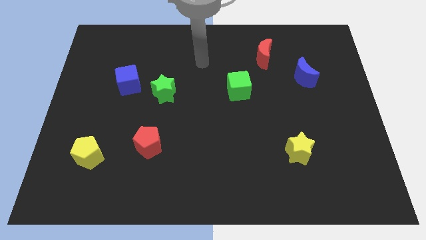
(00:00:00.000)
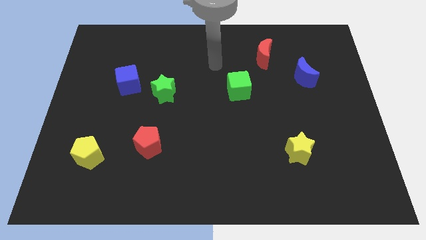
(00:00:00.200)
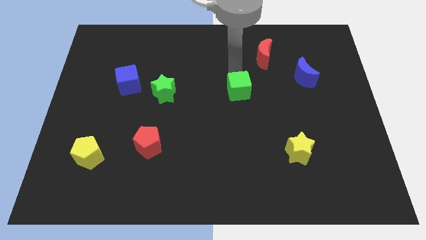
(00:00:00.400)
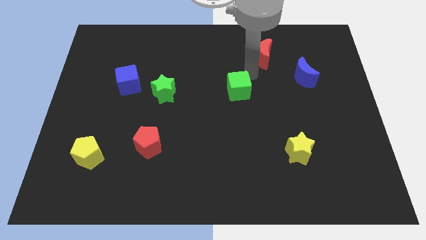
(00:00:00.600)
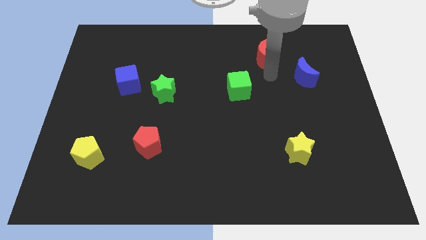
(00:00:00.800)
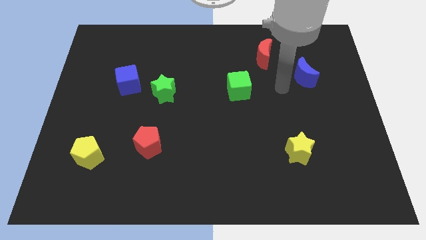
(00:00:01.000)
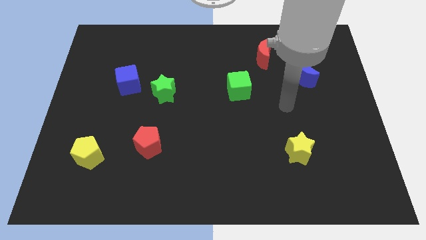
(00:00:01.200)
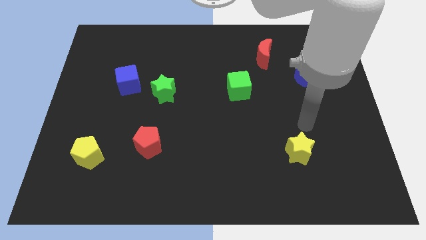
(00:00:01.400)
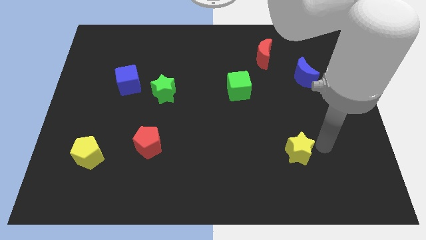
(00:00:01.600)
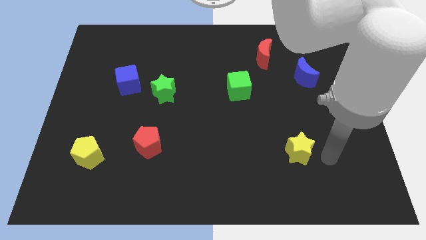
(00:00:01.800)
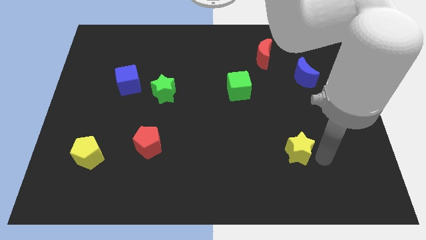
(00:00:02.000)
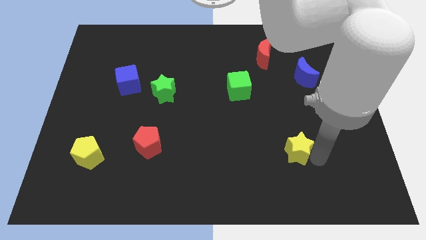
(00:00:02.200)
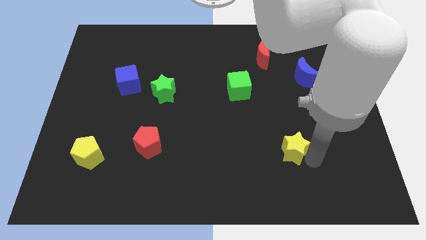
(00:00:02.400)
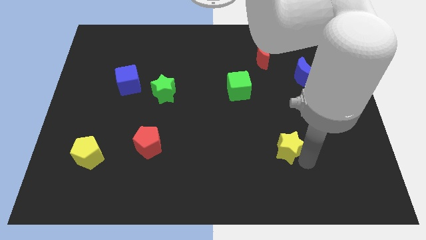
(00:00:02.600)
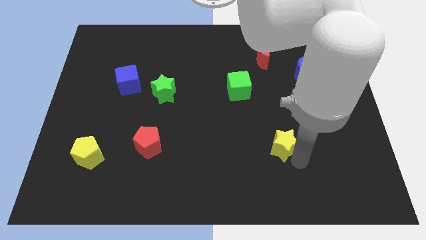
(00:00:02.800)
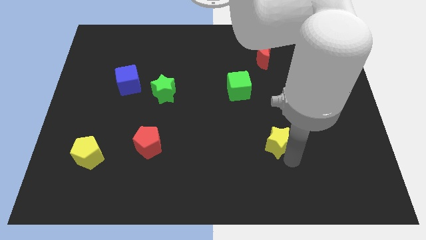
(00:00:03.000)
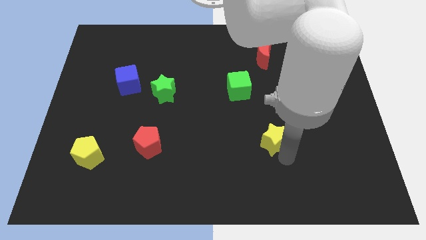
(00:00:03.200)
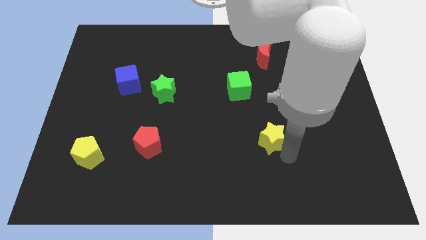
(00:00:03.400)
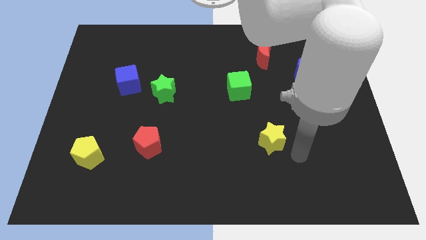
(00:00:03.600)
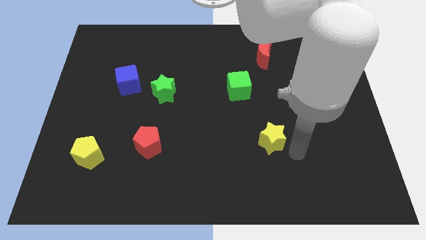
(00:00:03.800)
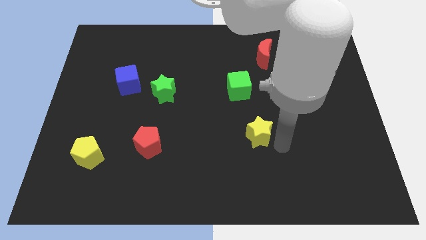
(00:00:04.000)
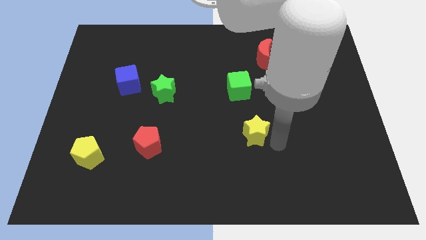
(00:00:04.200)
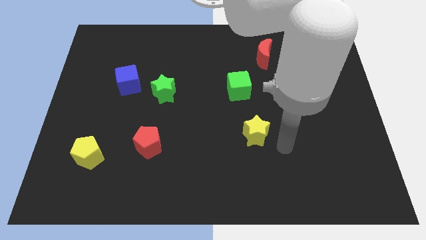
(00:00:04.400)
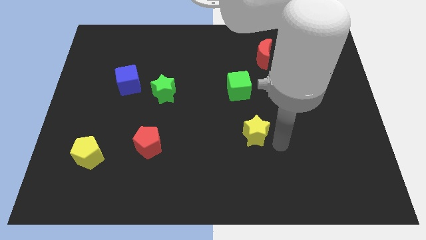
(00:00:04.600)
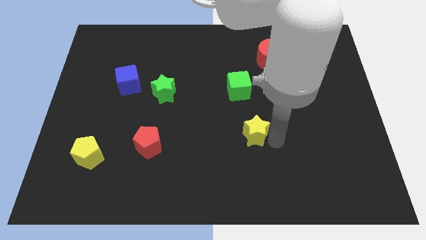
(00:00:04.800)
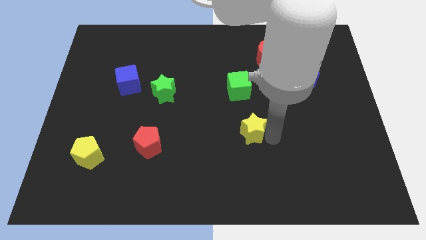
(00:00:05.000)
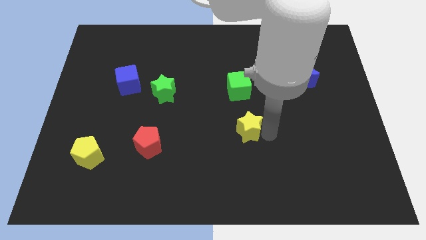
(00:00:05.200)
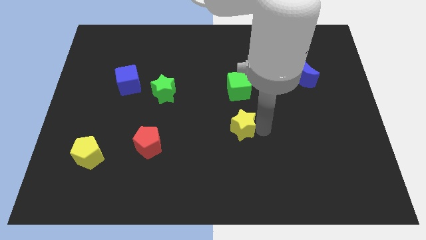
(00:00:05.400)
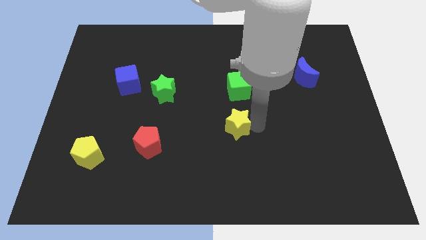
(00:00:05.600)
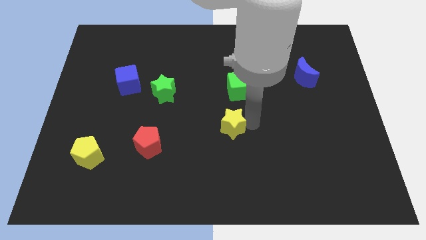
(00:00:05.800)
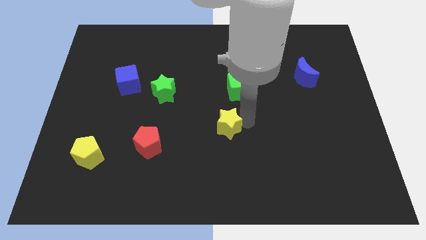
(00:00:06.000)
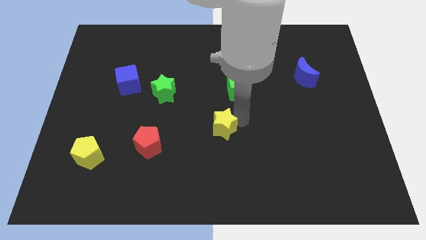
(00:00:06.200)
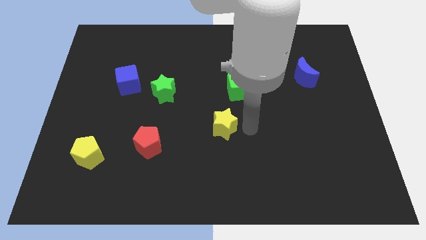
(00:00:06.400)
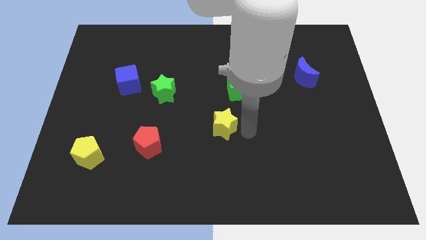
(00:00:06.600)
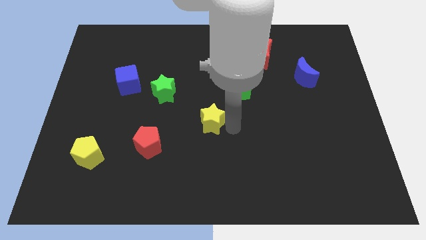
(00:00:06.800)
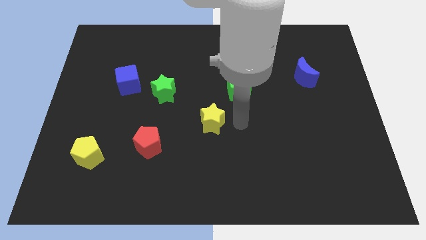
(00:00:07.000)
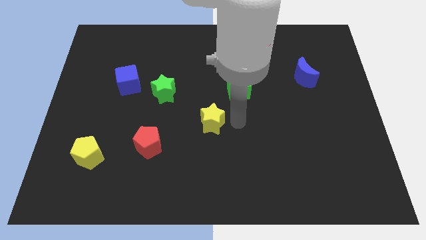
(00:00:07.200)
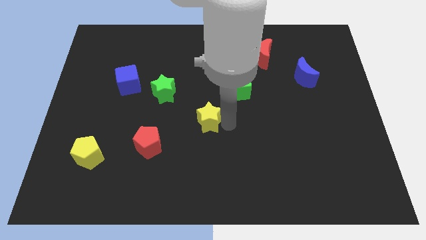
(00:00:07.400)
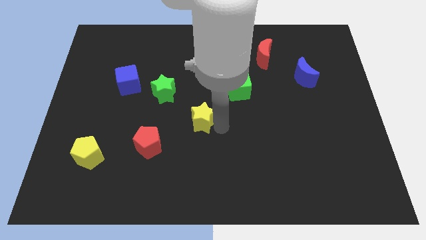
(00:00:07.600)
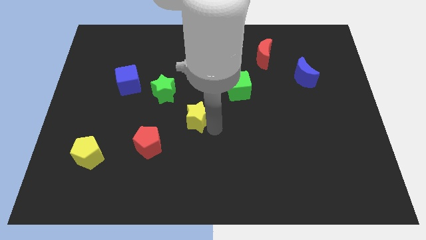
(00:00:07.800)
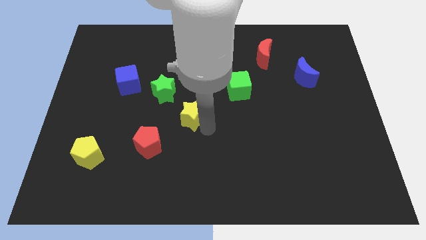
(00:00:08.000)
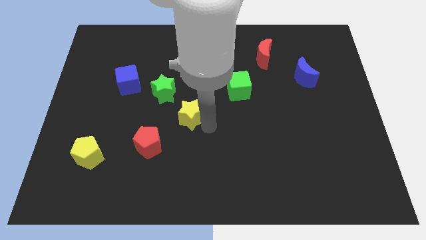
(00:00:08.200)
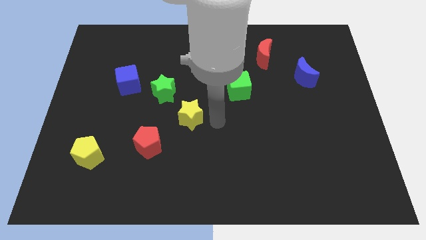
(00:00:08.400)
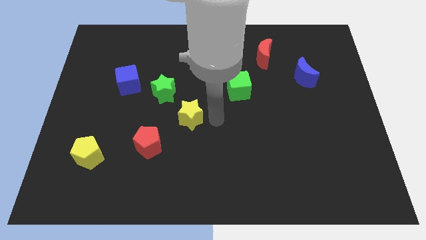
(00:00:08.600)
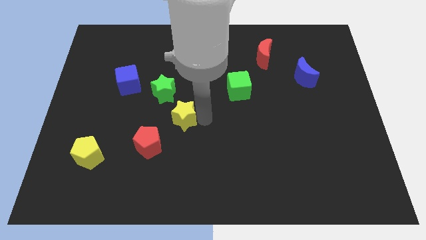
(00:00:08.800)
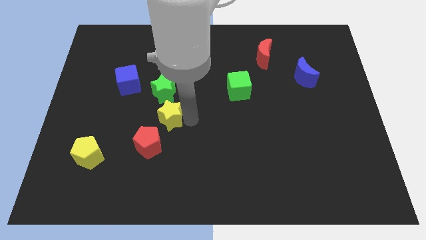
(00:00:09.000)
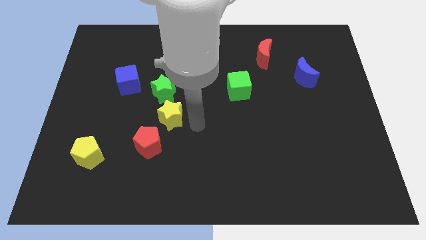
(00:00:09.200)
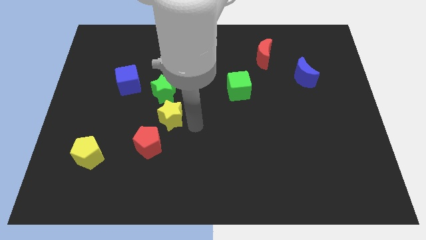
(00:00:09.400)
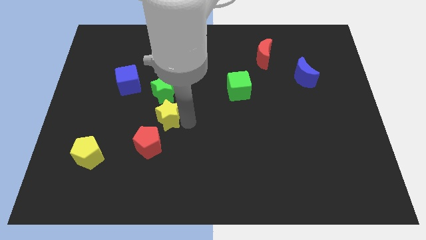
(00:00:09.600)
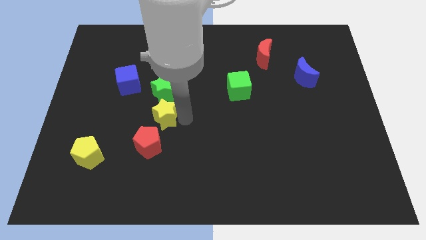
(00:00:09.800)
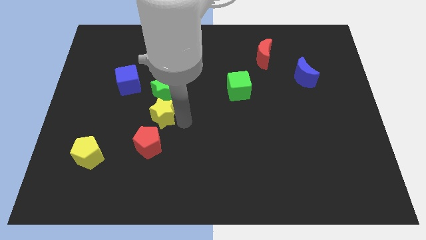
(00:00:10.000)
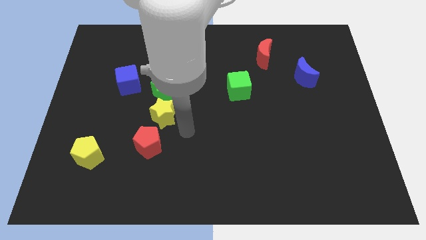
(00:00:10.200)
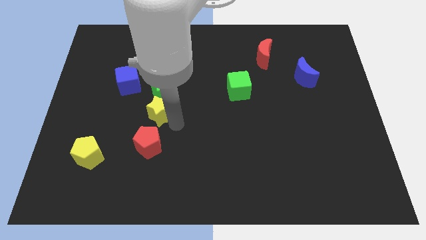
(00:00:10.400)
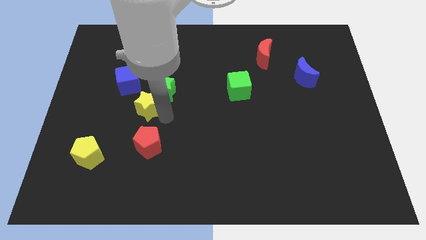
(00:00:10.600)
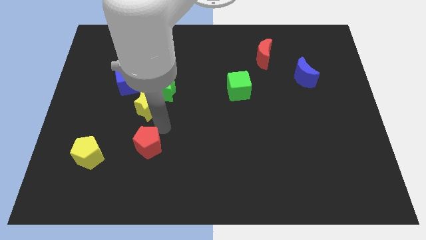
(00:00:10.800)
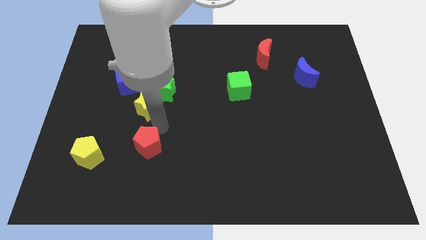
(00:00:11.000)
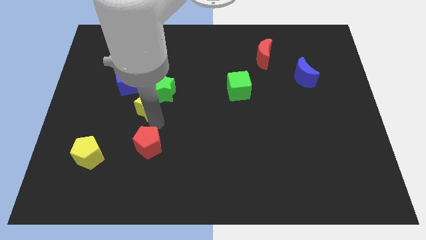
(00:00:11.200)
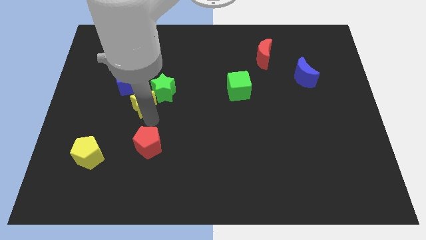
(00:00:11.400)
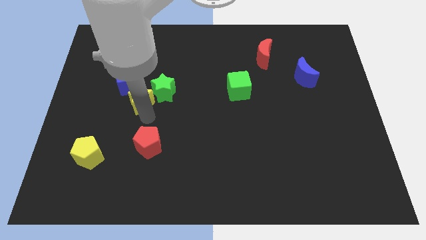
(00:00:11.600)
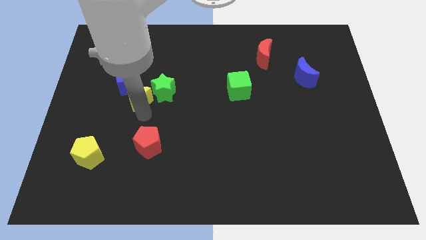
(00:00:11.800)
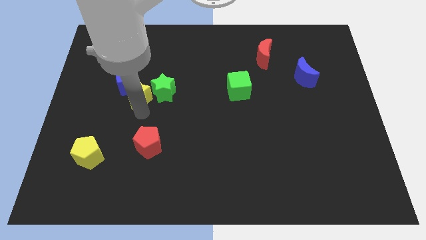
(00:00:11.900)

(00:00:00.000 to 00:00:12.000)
slide the yellow star to the blue cube

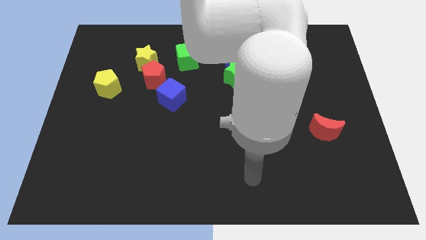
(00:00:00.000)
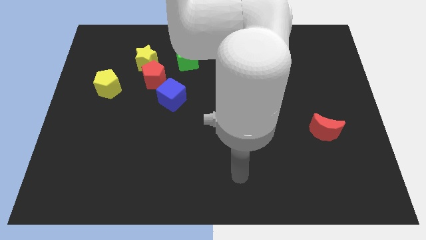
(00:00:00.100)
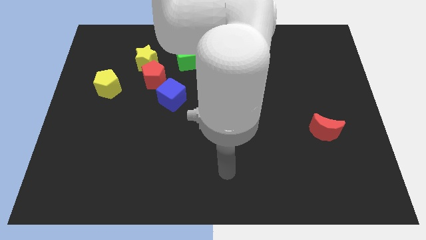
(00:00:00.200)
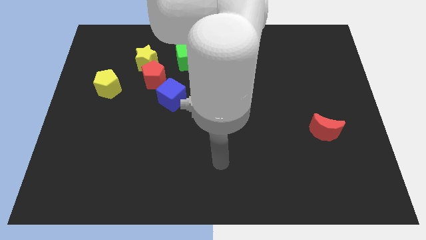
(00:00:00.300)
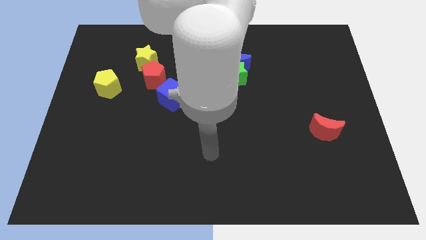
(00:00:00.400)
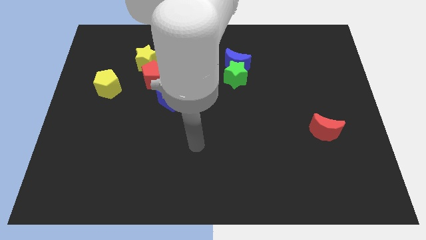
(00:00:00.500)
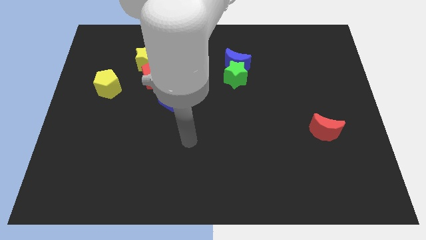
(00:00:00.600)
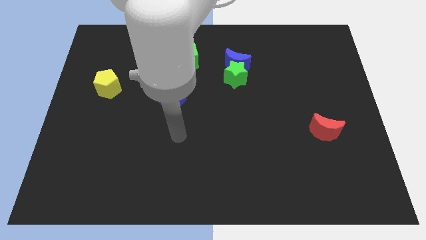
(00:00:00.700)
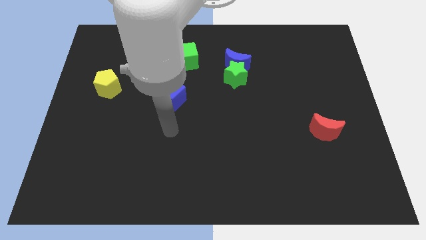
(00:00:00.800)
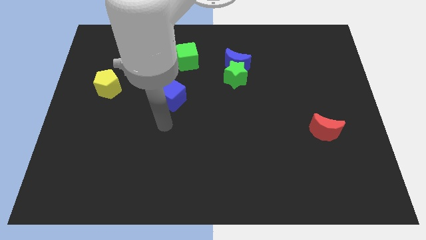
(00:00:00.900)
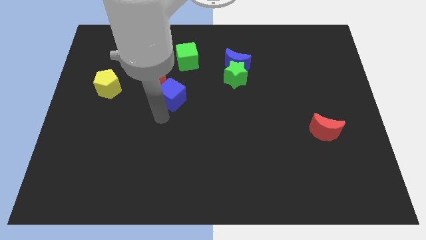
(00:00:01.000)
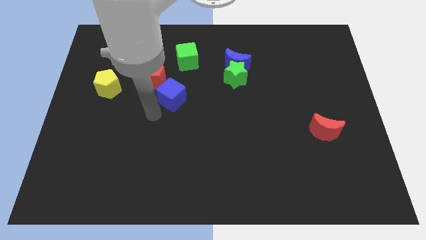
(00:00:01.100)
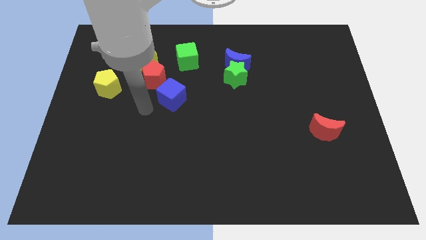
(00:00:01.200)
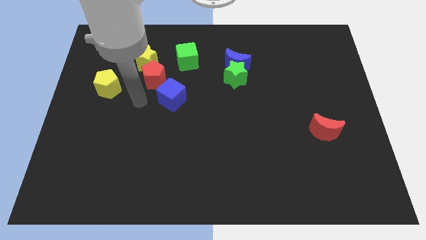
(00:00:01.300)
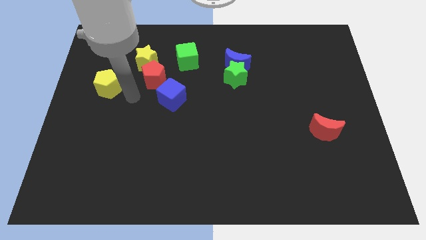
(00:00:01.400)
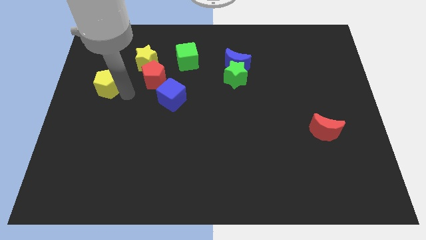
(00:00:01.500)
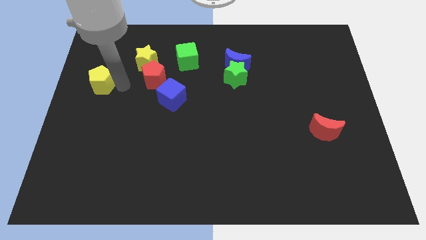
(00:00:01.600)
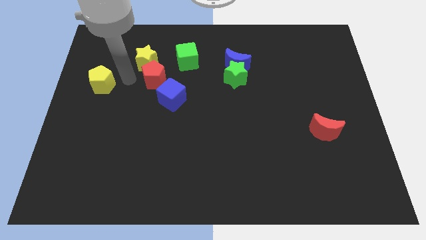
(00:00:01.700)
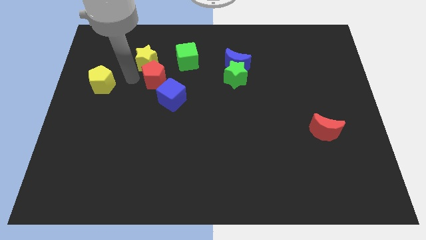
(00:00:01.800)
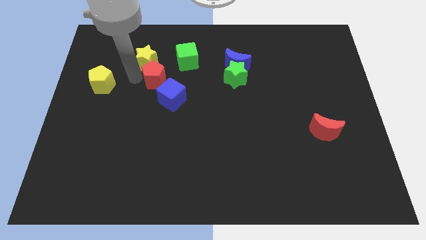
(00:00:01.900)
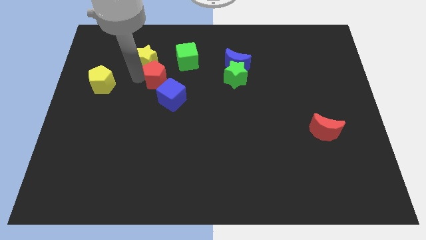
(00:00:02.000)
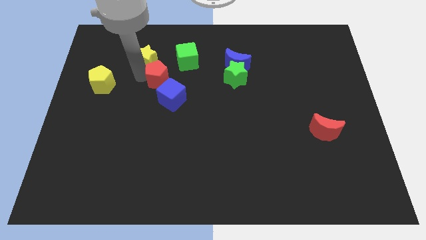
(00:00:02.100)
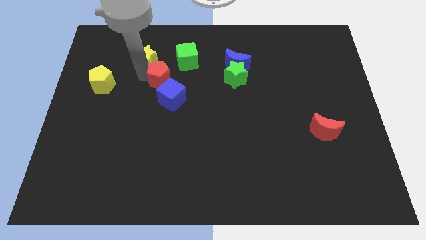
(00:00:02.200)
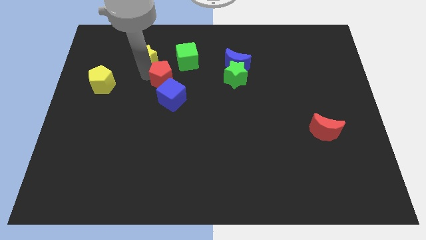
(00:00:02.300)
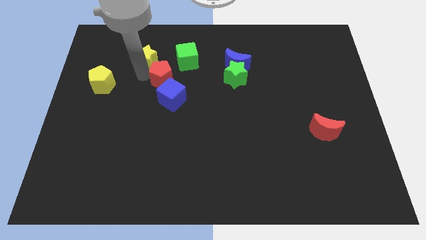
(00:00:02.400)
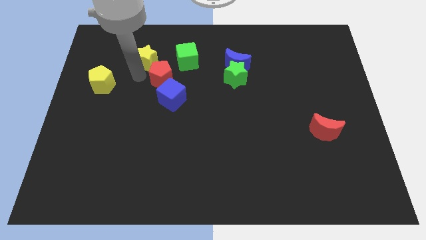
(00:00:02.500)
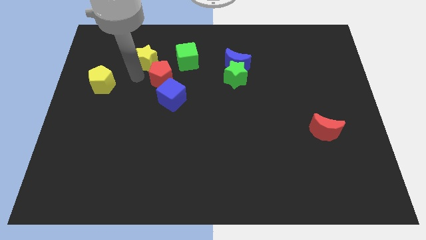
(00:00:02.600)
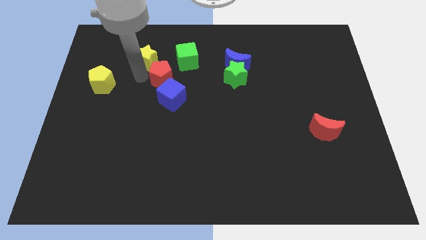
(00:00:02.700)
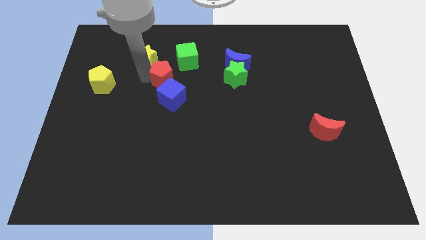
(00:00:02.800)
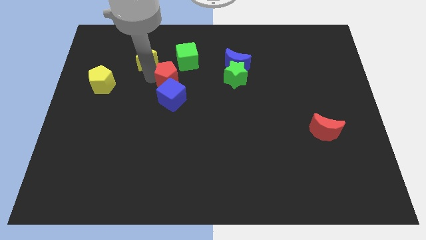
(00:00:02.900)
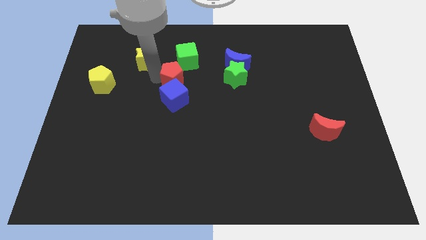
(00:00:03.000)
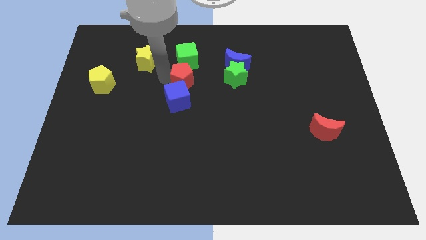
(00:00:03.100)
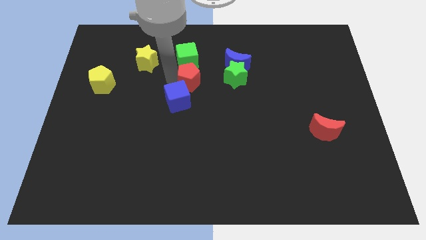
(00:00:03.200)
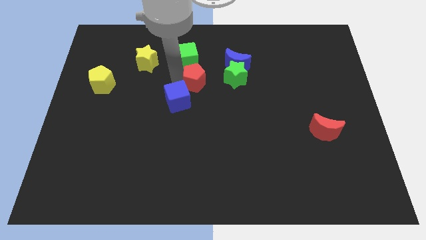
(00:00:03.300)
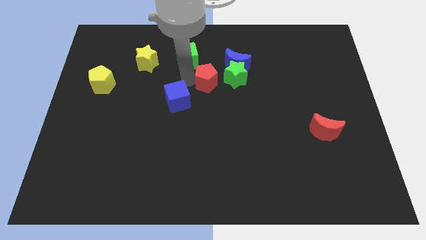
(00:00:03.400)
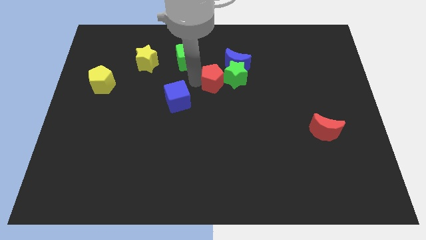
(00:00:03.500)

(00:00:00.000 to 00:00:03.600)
move the red pentagon next to the green star
